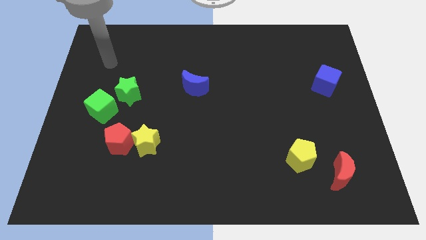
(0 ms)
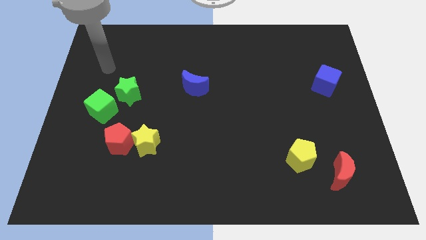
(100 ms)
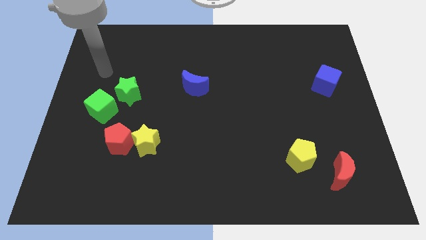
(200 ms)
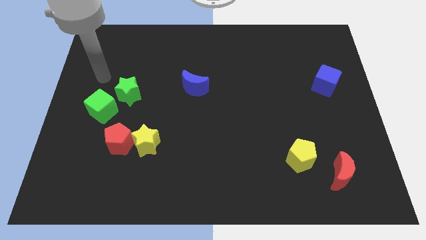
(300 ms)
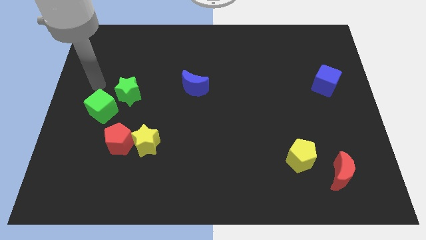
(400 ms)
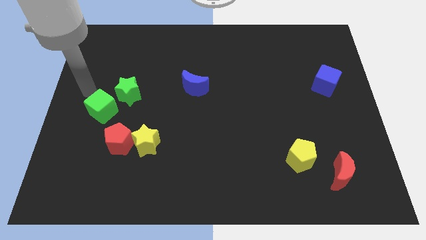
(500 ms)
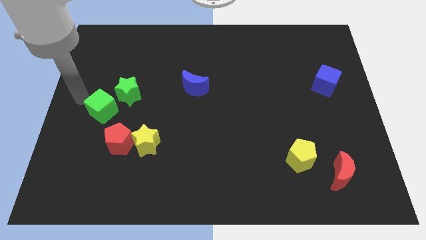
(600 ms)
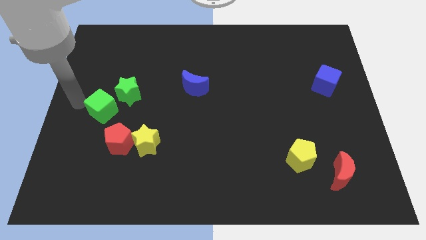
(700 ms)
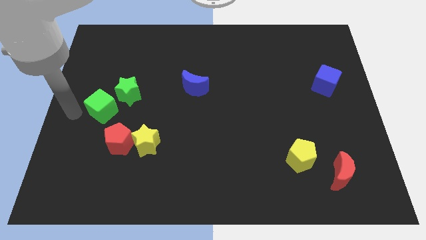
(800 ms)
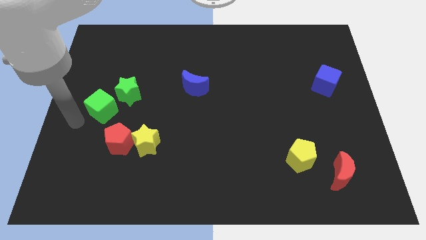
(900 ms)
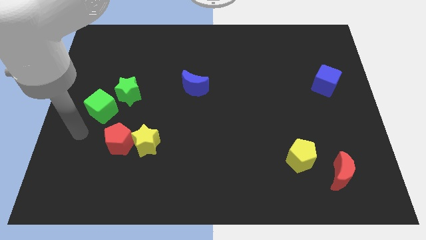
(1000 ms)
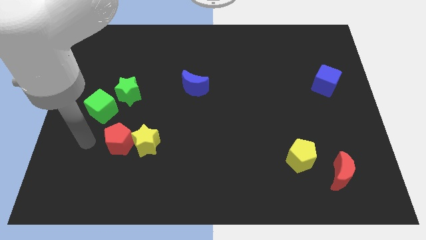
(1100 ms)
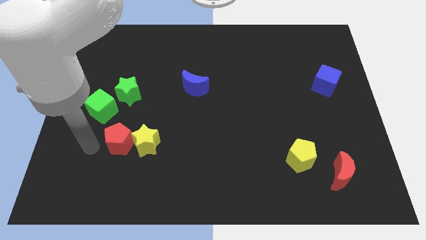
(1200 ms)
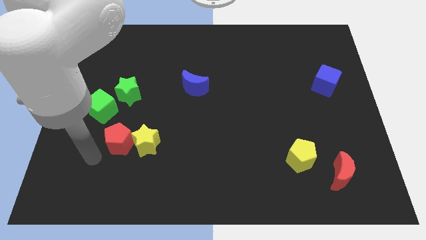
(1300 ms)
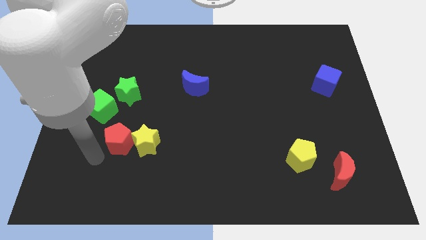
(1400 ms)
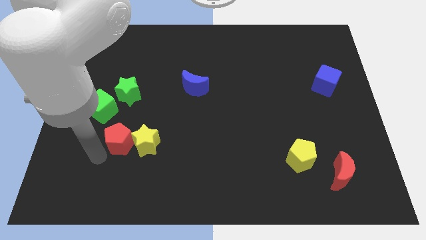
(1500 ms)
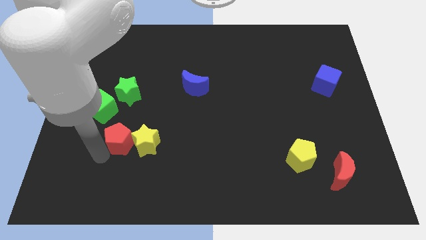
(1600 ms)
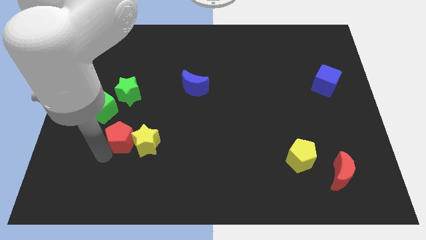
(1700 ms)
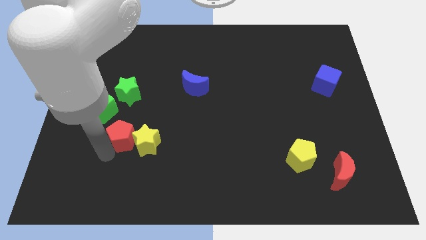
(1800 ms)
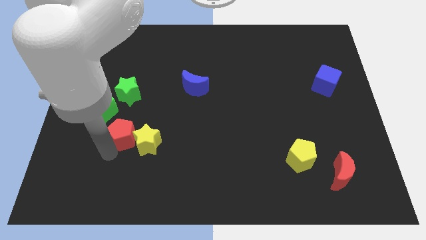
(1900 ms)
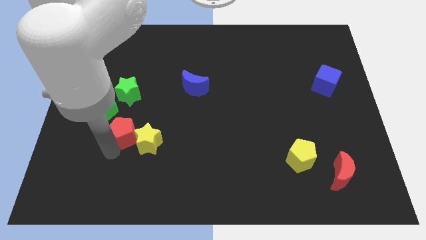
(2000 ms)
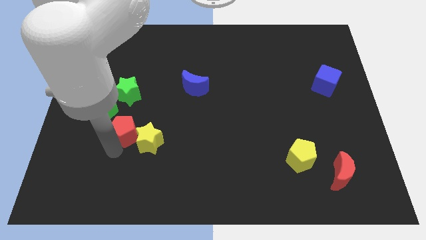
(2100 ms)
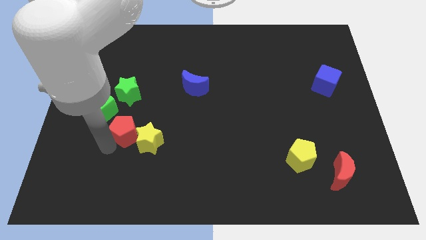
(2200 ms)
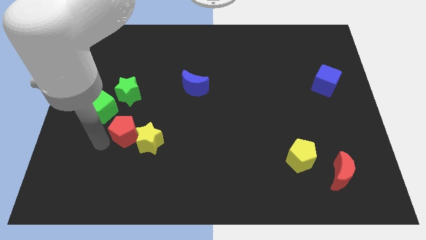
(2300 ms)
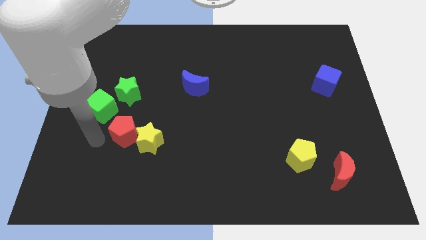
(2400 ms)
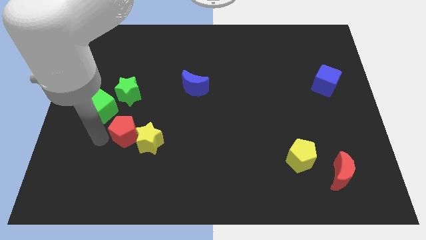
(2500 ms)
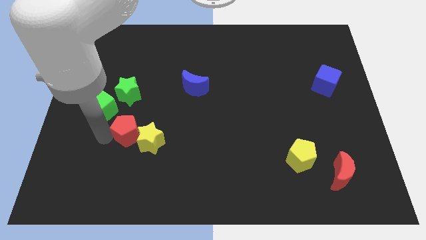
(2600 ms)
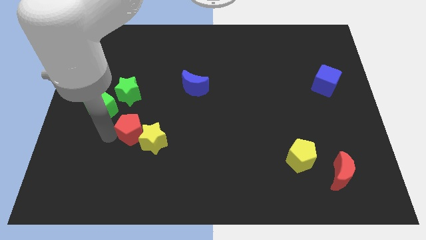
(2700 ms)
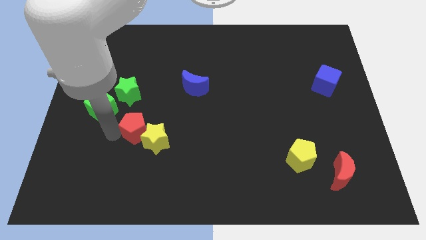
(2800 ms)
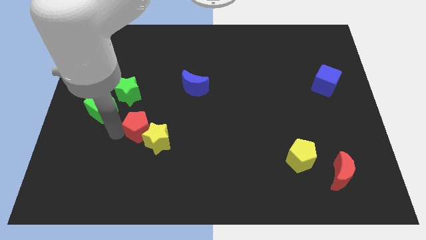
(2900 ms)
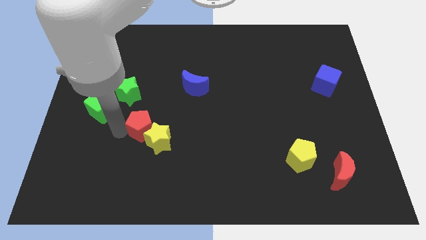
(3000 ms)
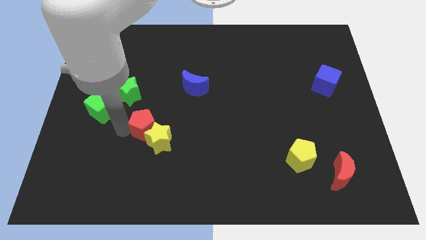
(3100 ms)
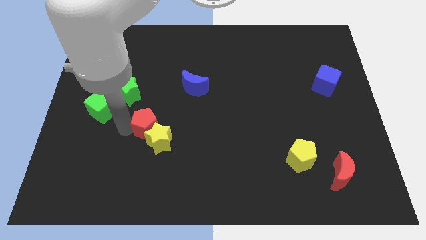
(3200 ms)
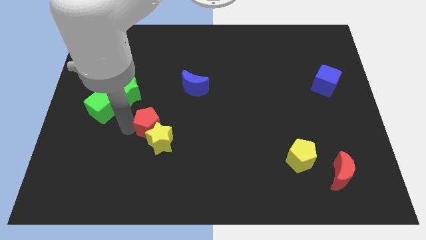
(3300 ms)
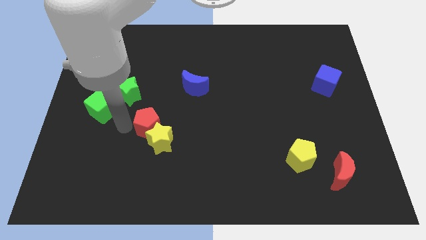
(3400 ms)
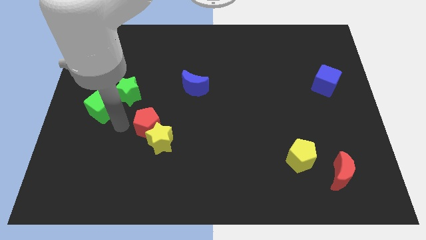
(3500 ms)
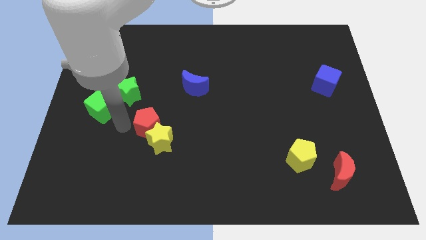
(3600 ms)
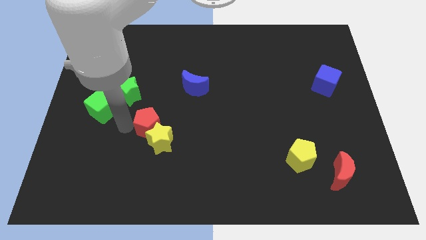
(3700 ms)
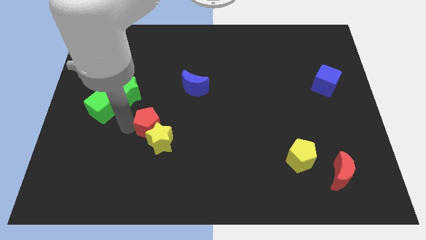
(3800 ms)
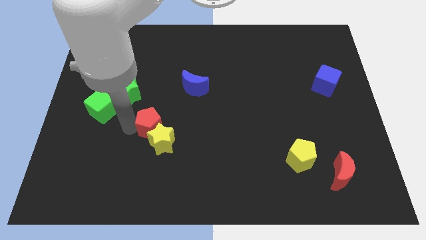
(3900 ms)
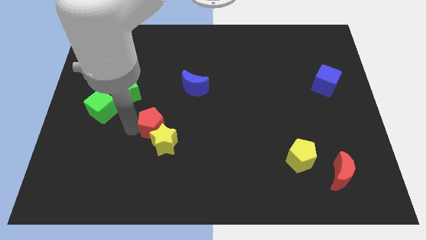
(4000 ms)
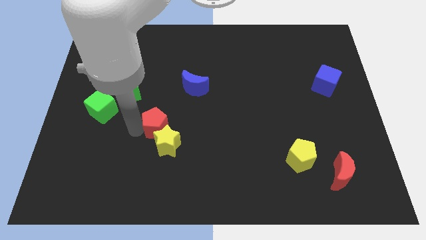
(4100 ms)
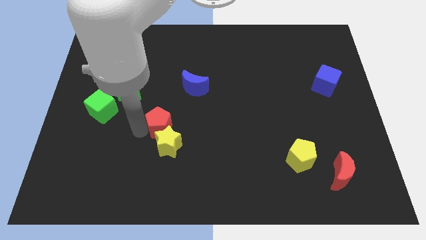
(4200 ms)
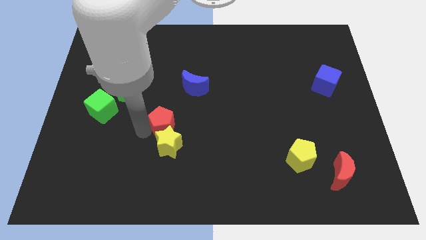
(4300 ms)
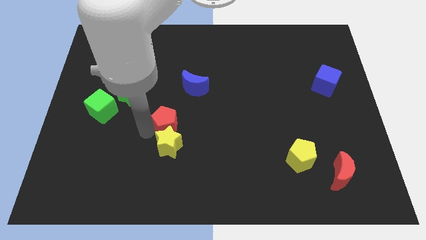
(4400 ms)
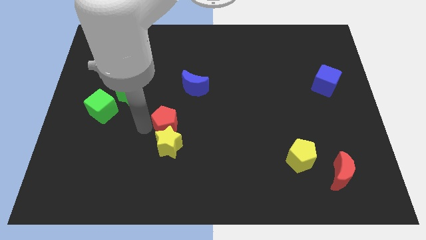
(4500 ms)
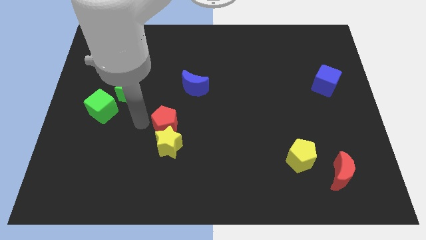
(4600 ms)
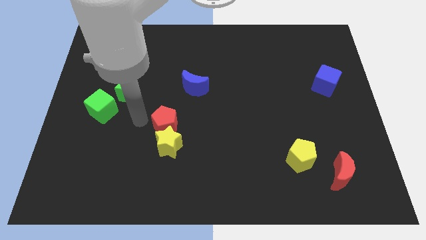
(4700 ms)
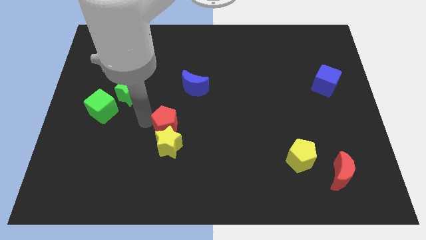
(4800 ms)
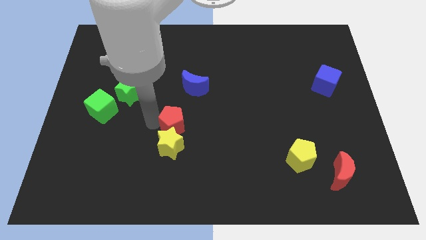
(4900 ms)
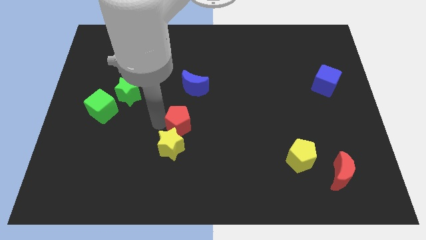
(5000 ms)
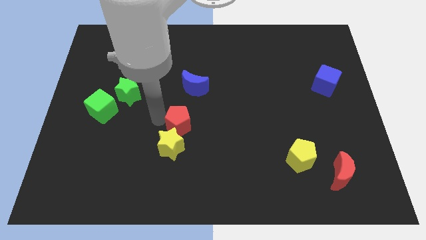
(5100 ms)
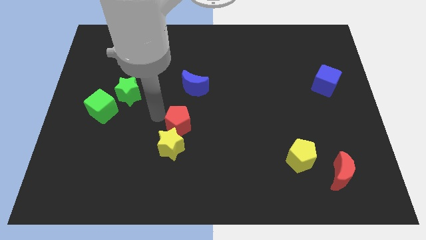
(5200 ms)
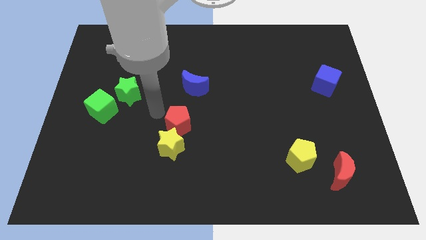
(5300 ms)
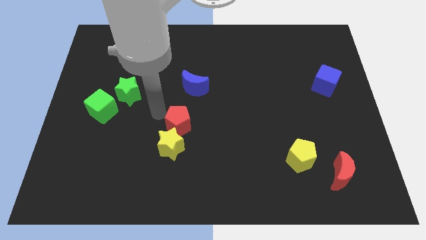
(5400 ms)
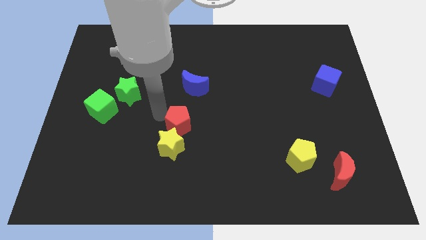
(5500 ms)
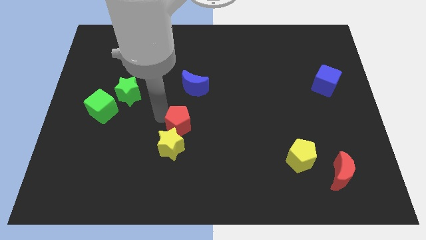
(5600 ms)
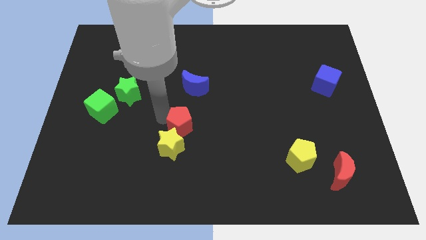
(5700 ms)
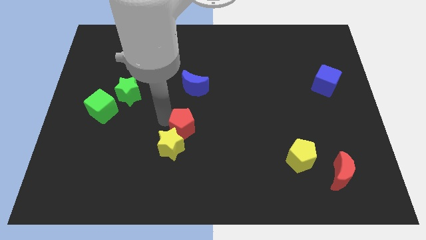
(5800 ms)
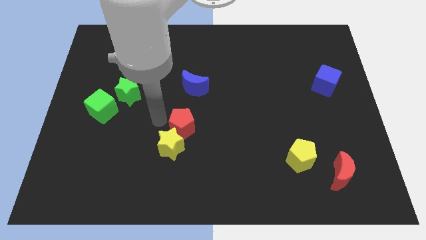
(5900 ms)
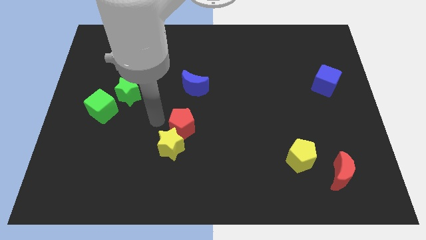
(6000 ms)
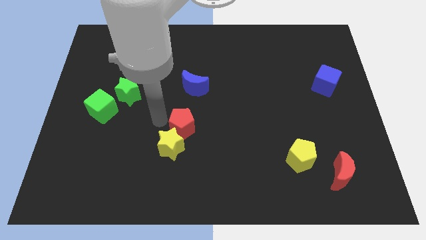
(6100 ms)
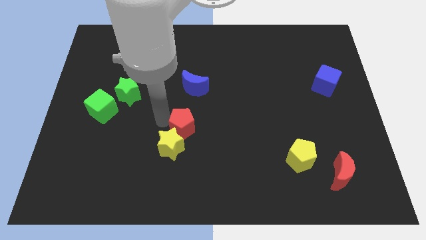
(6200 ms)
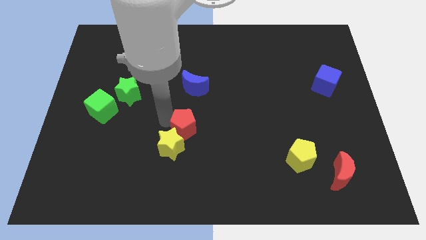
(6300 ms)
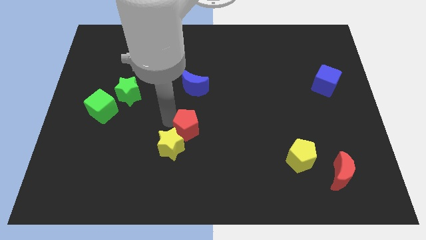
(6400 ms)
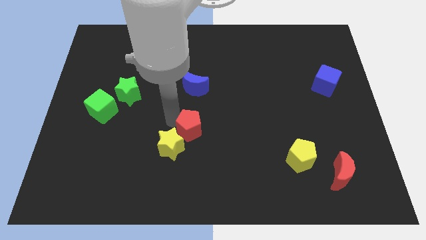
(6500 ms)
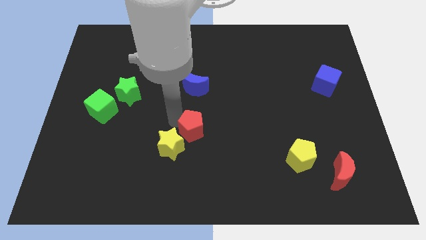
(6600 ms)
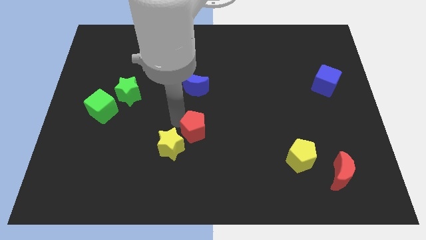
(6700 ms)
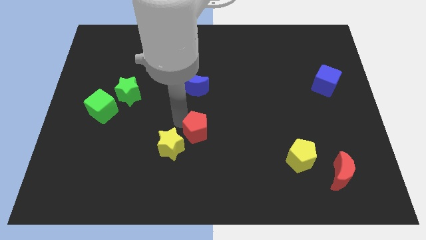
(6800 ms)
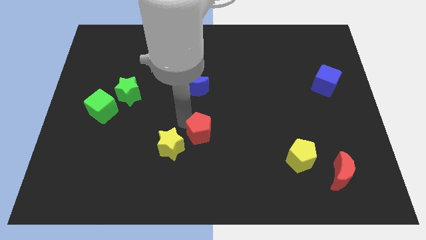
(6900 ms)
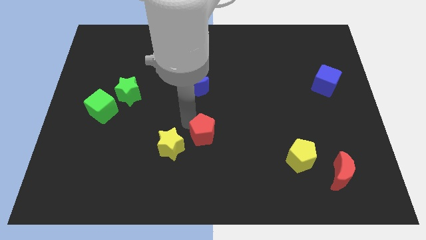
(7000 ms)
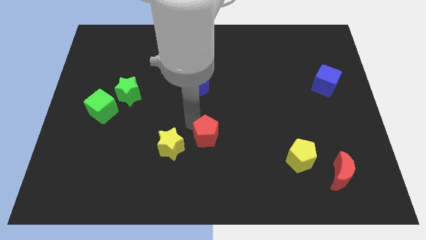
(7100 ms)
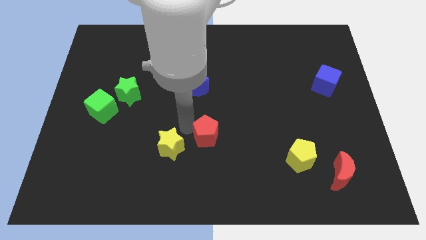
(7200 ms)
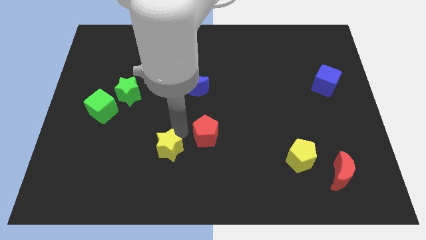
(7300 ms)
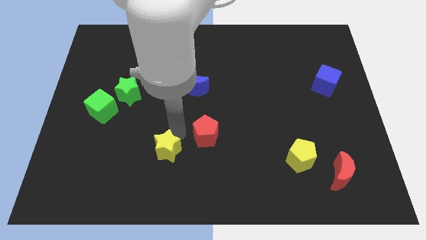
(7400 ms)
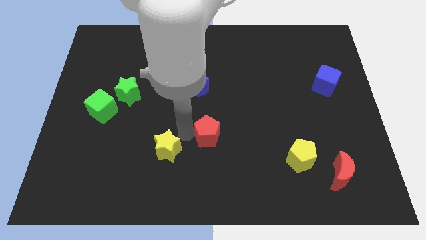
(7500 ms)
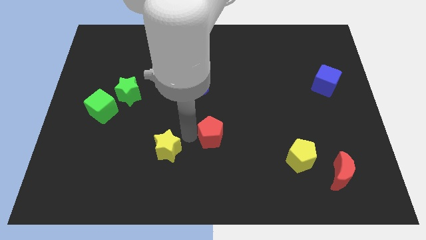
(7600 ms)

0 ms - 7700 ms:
move the red pentagon right
